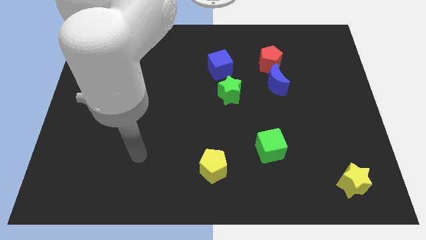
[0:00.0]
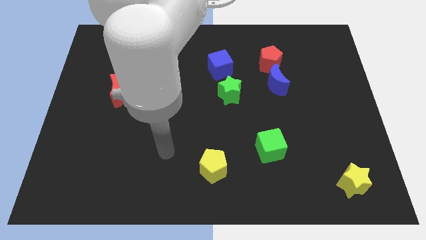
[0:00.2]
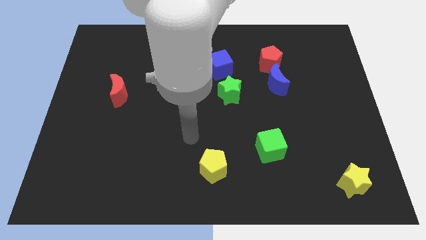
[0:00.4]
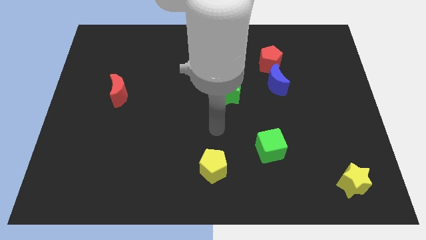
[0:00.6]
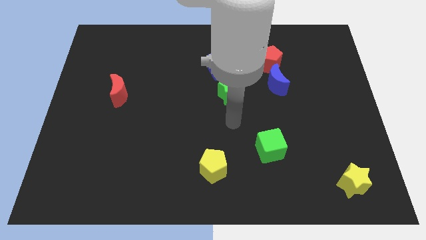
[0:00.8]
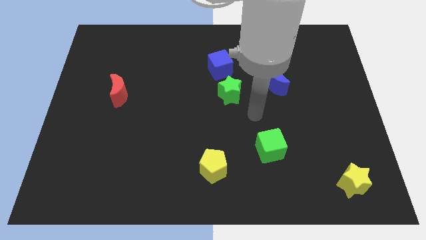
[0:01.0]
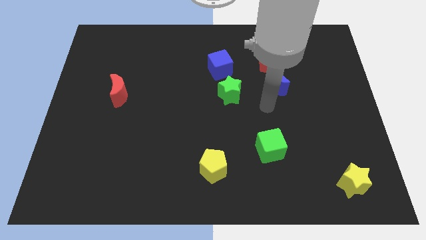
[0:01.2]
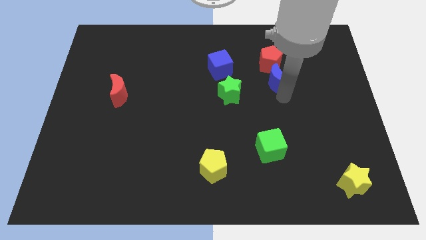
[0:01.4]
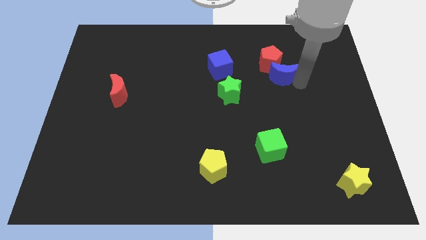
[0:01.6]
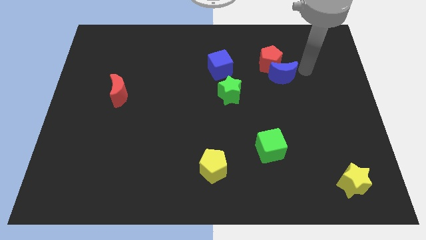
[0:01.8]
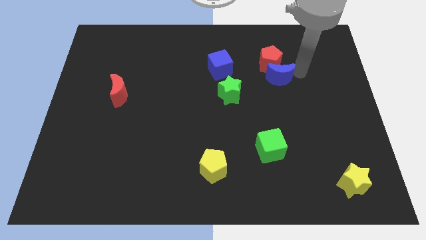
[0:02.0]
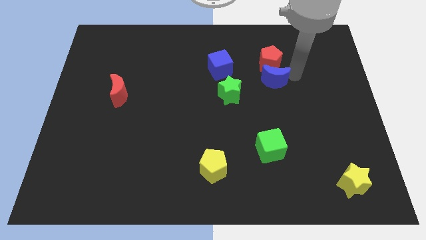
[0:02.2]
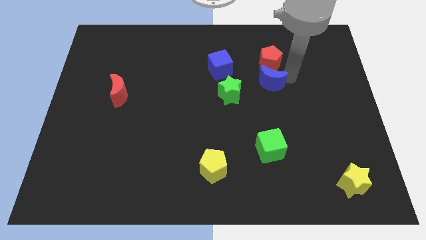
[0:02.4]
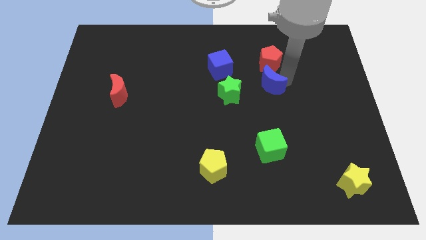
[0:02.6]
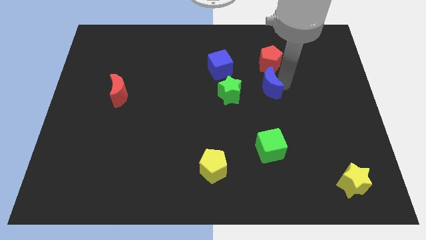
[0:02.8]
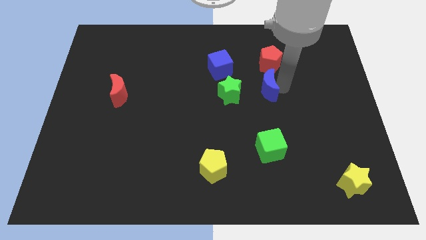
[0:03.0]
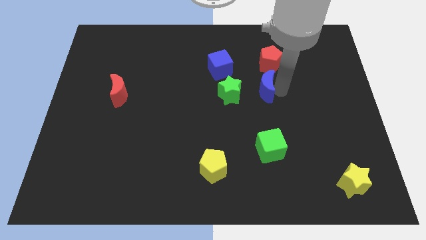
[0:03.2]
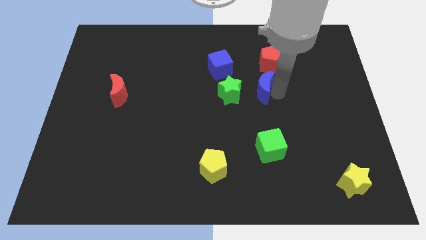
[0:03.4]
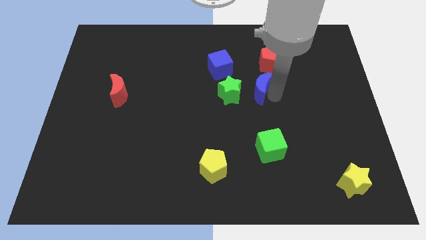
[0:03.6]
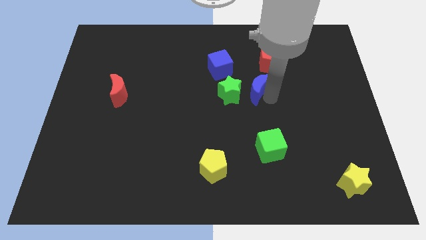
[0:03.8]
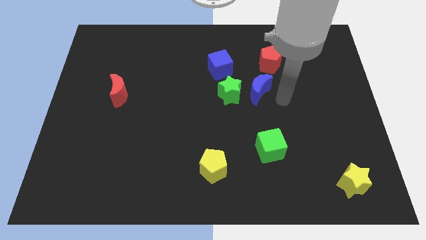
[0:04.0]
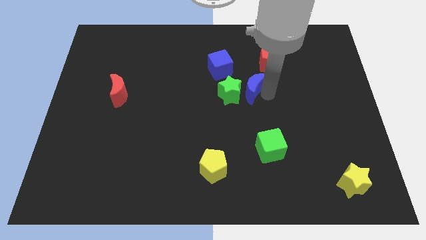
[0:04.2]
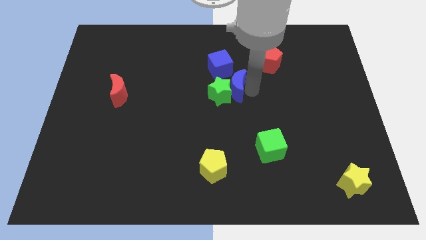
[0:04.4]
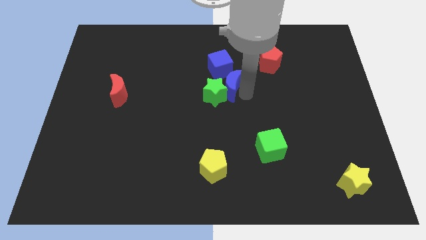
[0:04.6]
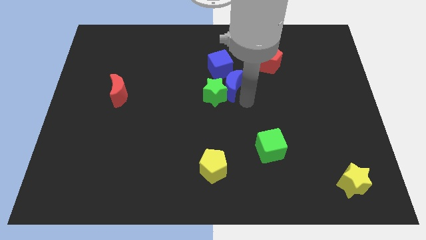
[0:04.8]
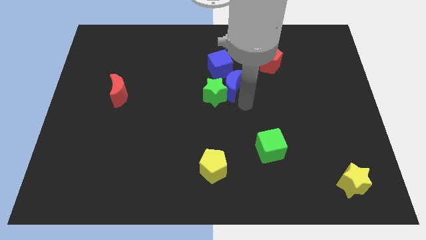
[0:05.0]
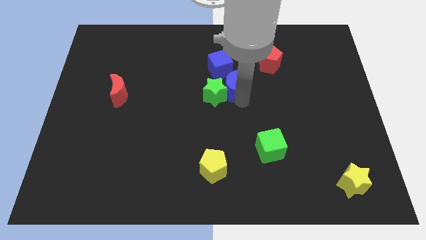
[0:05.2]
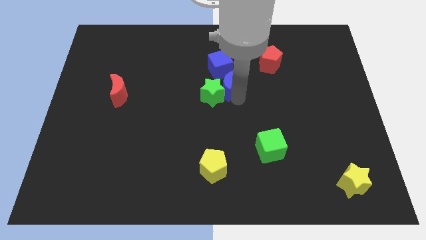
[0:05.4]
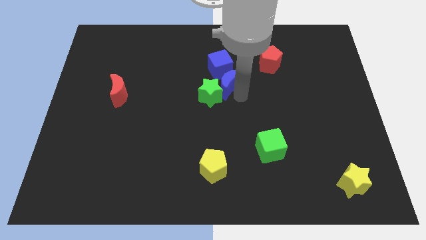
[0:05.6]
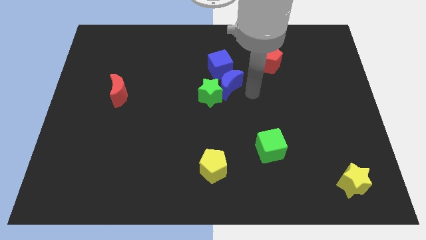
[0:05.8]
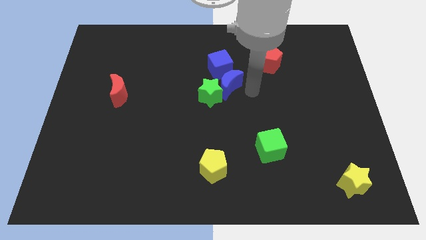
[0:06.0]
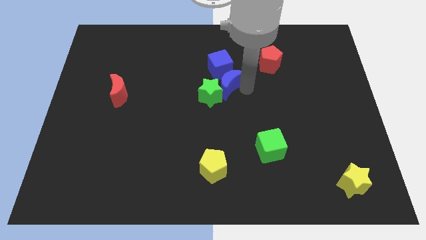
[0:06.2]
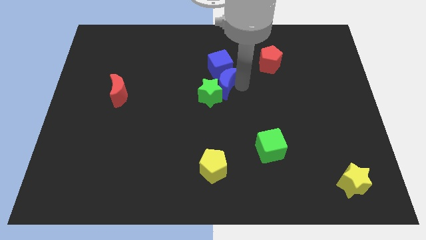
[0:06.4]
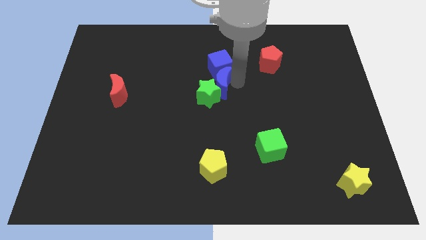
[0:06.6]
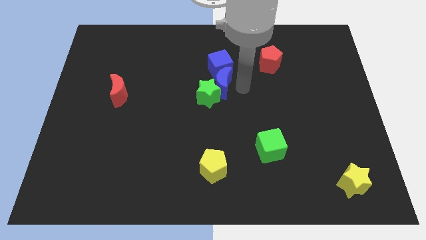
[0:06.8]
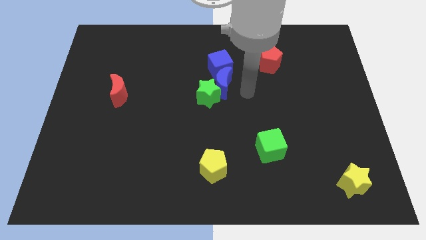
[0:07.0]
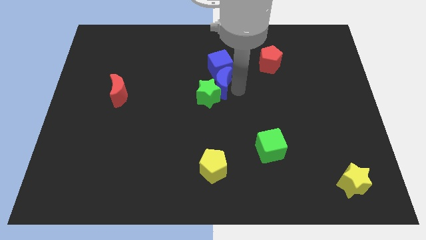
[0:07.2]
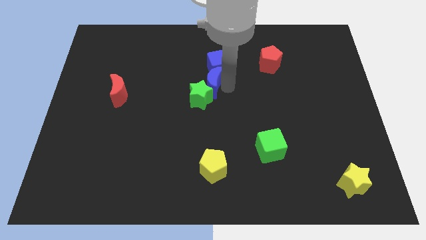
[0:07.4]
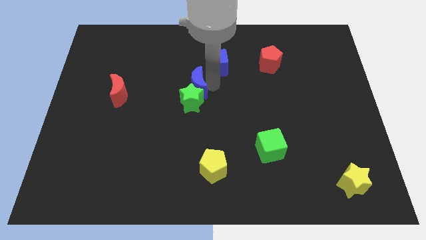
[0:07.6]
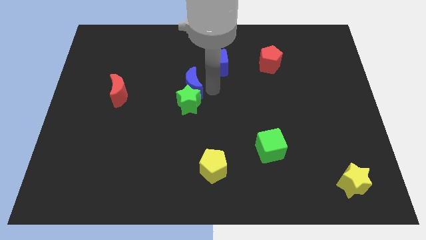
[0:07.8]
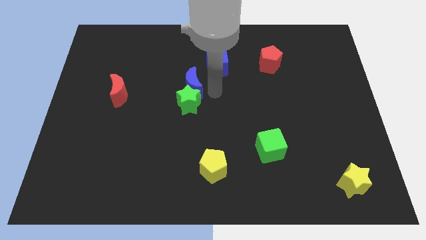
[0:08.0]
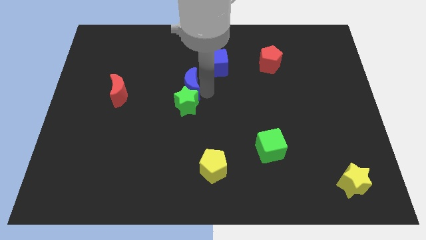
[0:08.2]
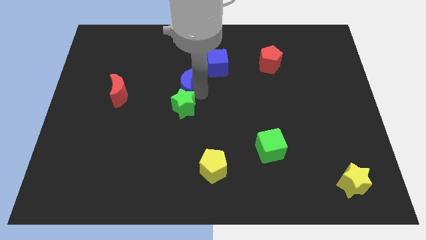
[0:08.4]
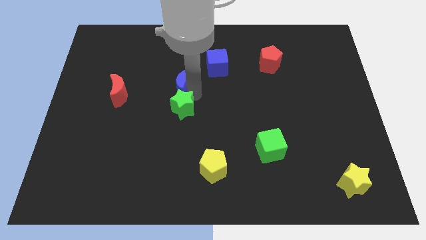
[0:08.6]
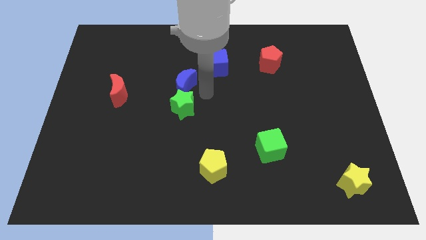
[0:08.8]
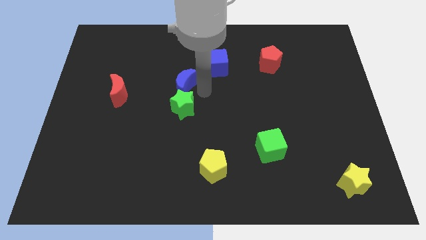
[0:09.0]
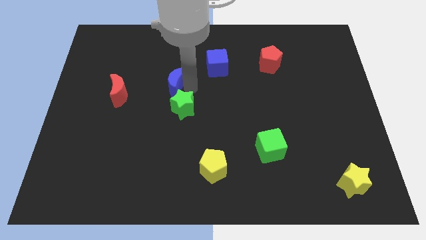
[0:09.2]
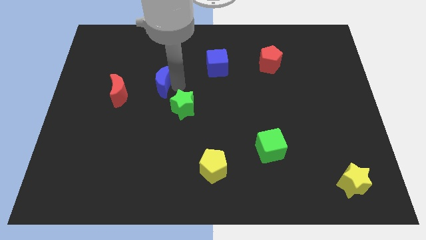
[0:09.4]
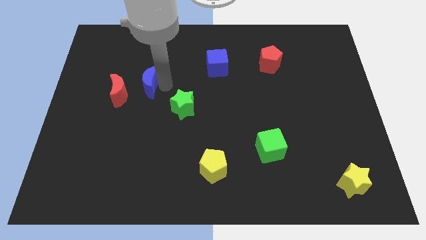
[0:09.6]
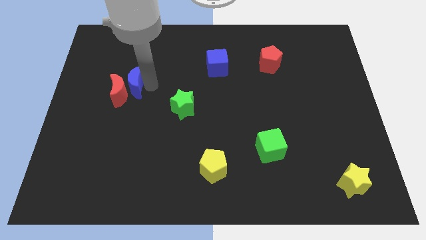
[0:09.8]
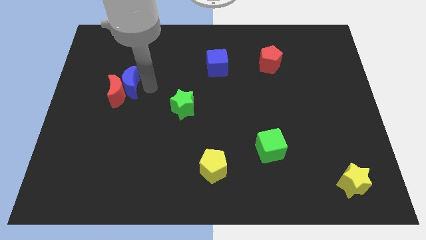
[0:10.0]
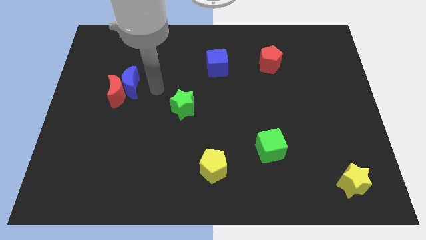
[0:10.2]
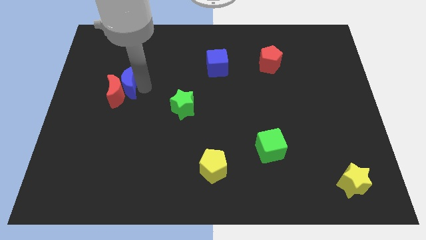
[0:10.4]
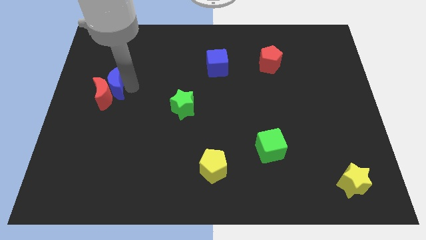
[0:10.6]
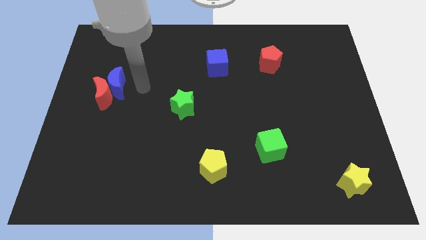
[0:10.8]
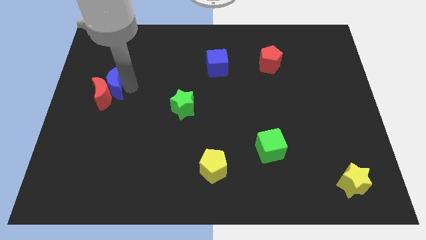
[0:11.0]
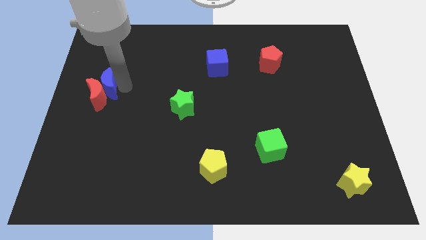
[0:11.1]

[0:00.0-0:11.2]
push the blue moon to the left side

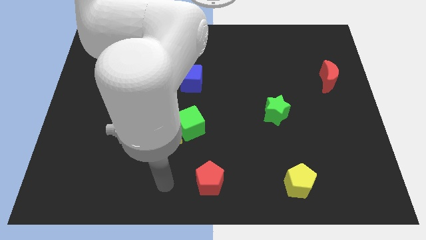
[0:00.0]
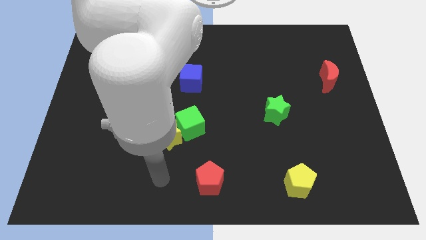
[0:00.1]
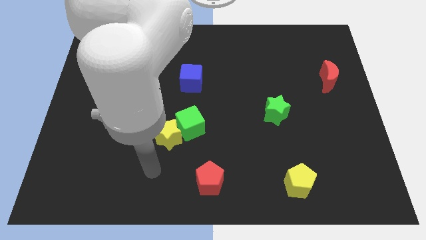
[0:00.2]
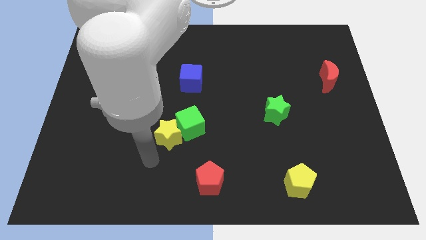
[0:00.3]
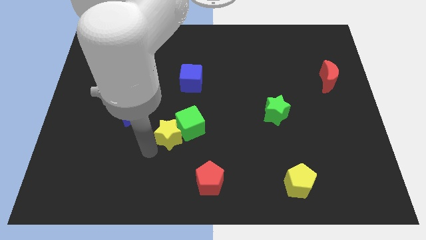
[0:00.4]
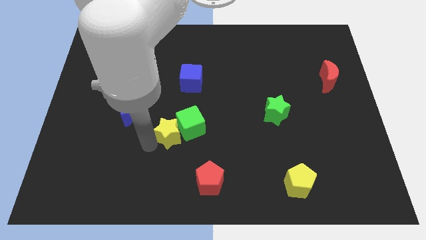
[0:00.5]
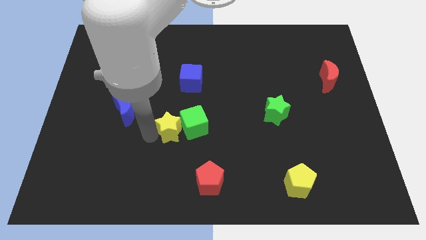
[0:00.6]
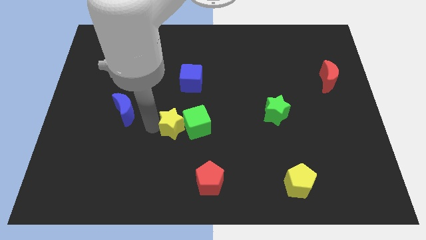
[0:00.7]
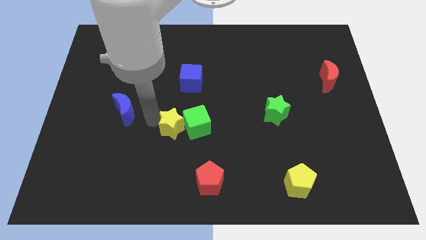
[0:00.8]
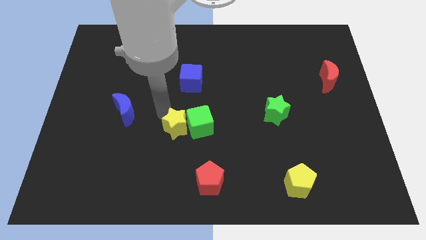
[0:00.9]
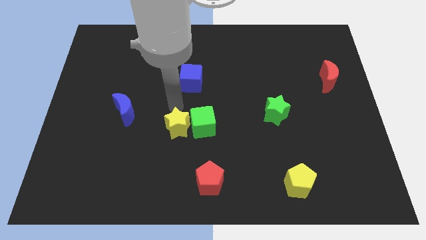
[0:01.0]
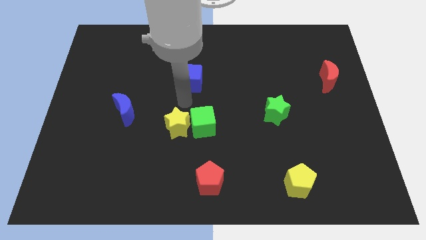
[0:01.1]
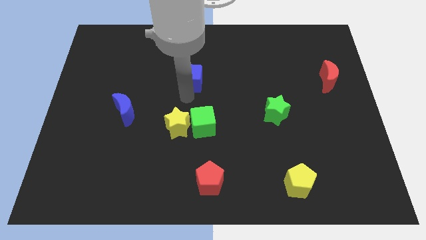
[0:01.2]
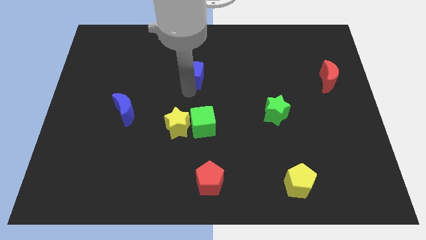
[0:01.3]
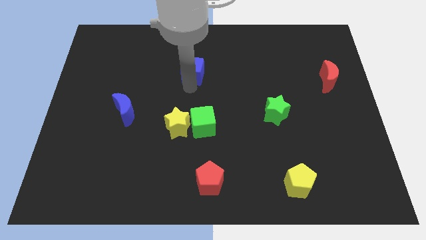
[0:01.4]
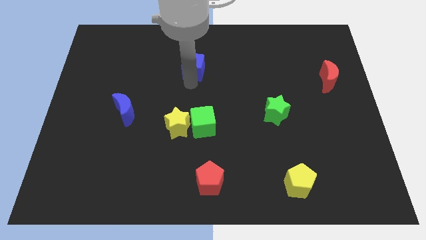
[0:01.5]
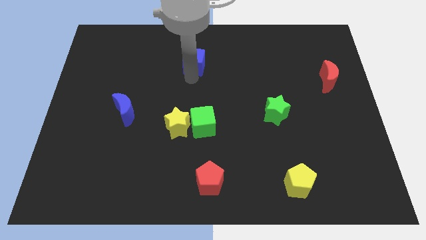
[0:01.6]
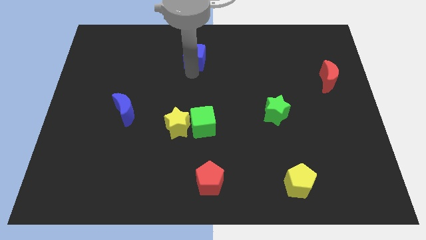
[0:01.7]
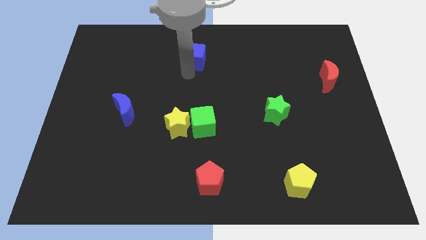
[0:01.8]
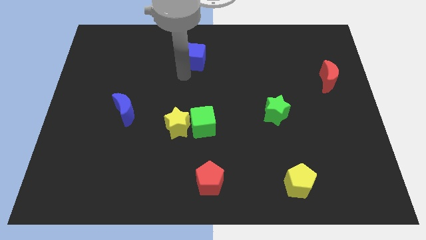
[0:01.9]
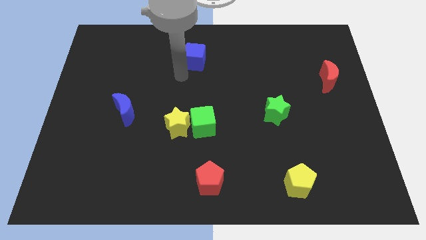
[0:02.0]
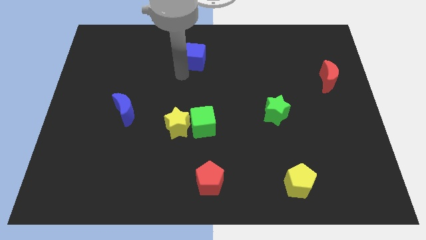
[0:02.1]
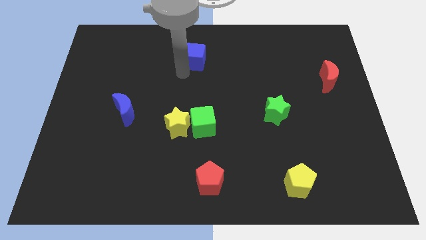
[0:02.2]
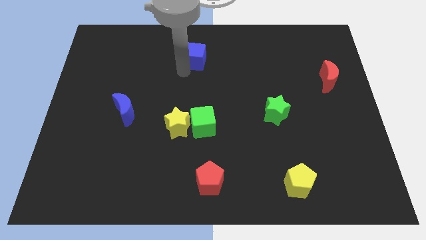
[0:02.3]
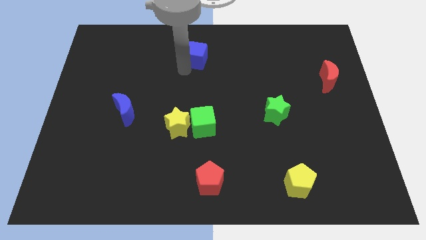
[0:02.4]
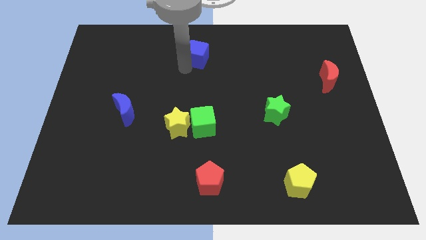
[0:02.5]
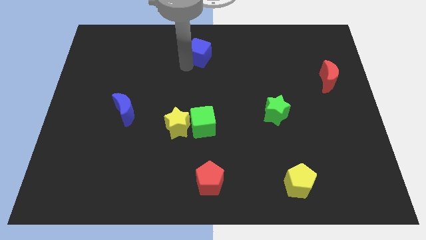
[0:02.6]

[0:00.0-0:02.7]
push the blue cube to the towards your base
